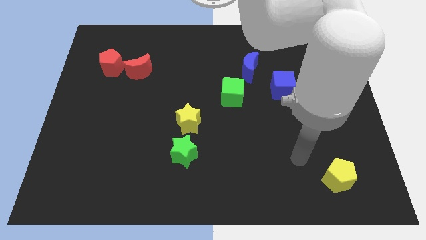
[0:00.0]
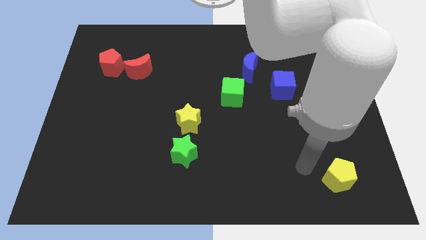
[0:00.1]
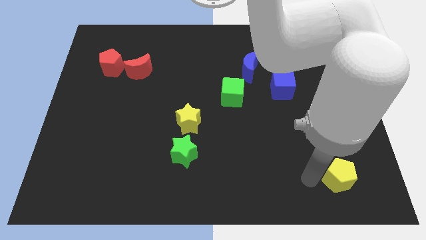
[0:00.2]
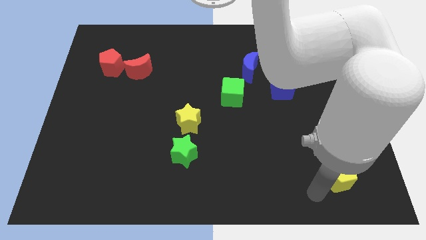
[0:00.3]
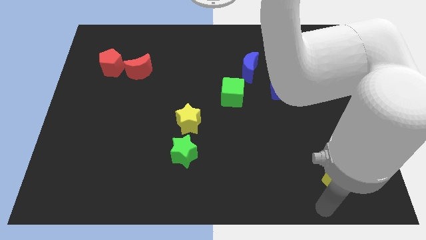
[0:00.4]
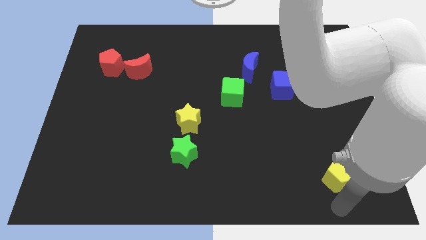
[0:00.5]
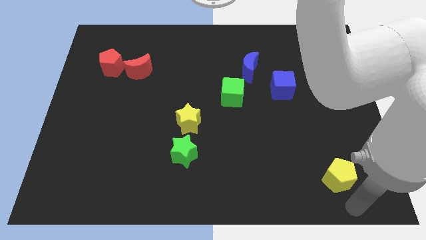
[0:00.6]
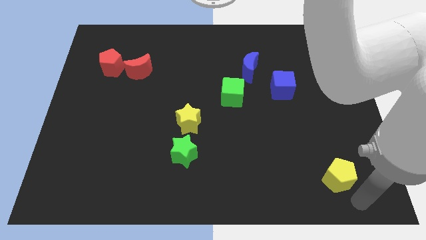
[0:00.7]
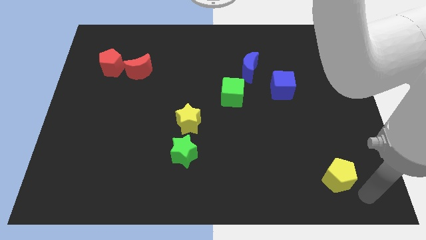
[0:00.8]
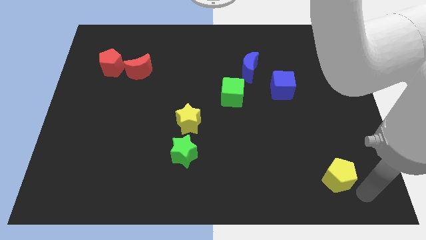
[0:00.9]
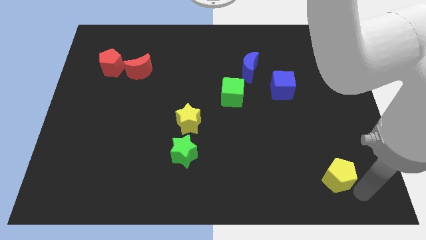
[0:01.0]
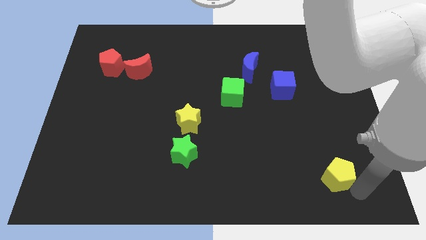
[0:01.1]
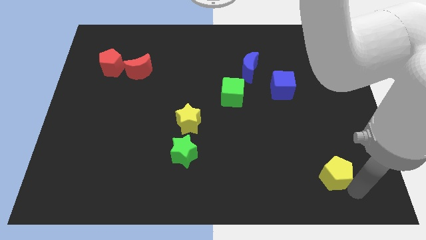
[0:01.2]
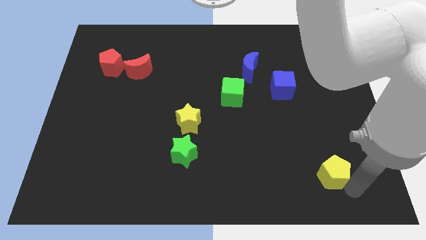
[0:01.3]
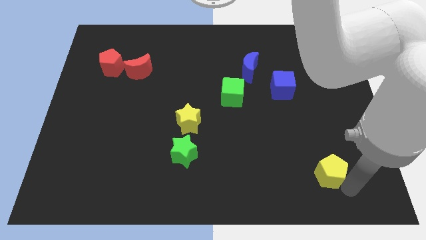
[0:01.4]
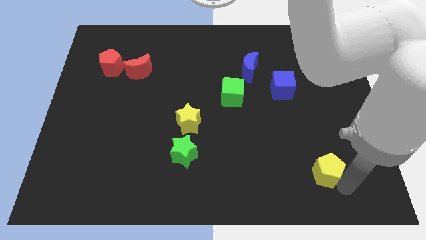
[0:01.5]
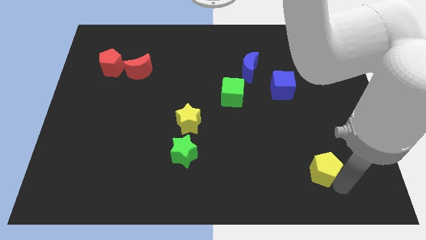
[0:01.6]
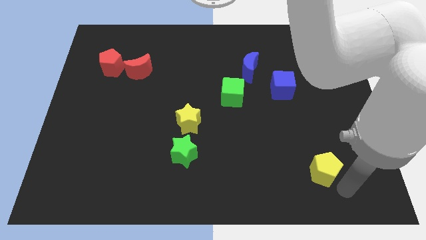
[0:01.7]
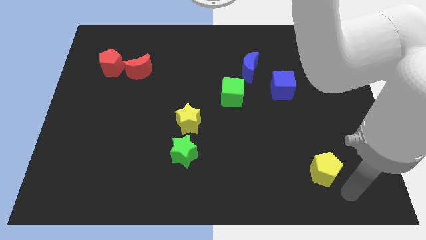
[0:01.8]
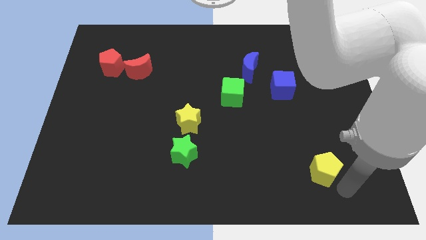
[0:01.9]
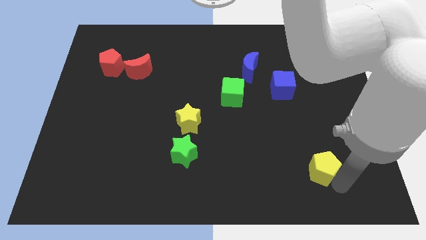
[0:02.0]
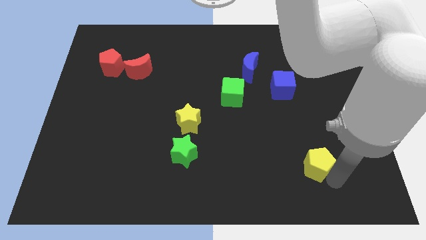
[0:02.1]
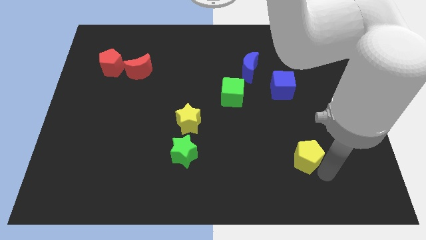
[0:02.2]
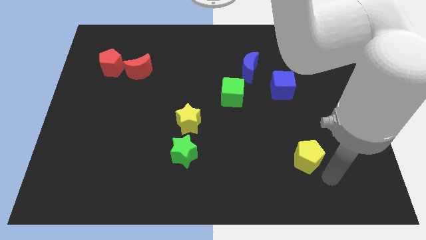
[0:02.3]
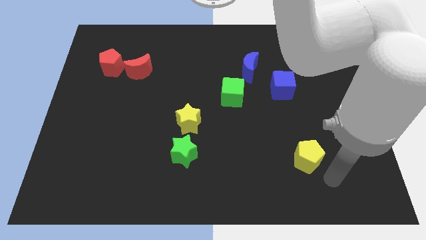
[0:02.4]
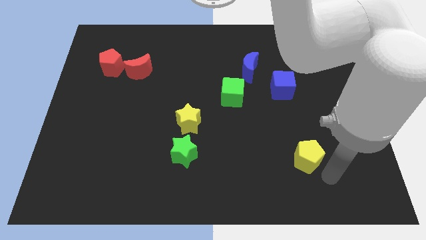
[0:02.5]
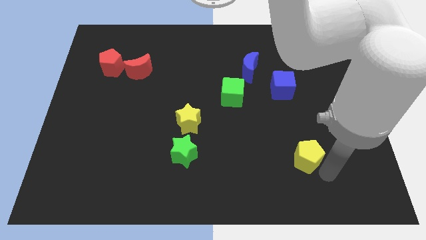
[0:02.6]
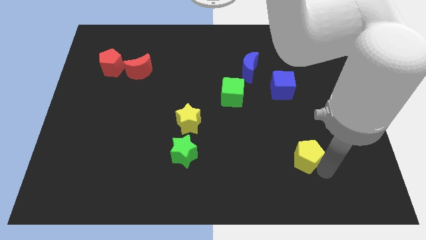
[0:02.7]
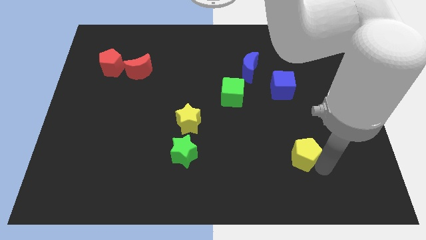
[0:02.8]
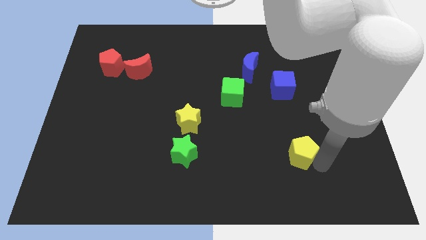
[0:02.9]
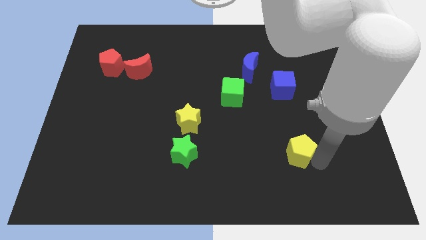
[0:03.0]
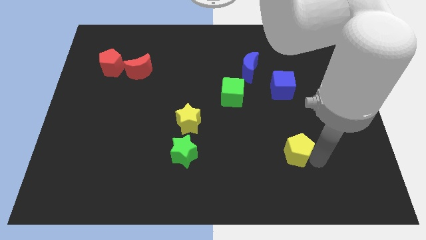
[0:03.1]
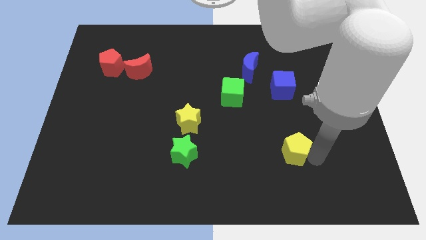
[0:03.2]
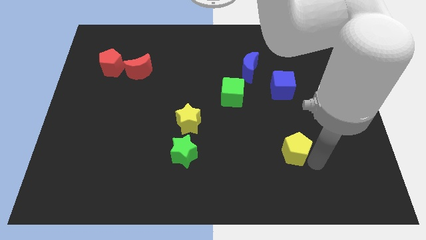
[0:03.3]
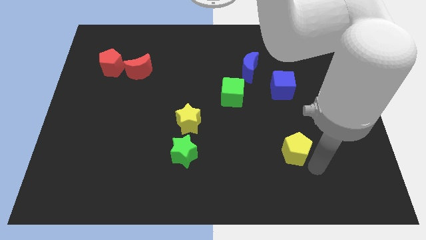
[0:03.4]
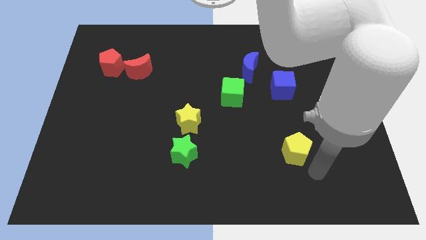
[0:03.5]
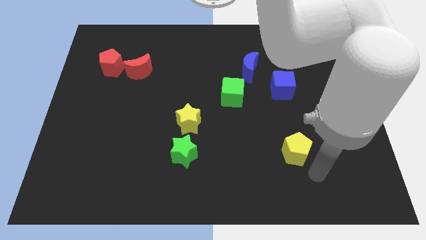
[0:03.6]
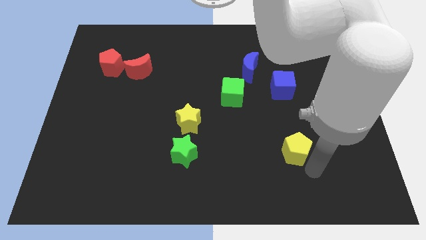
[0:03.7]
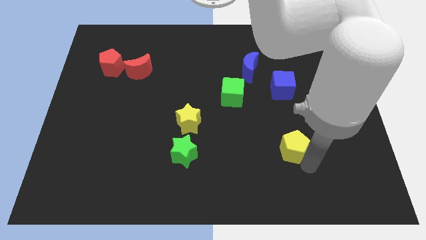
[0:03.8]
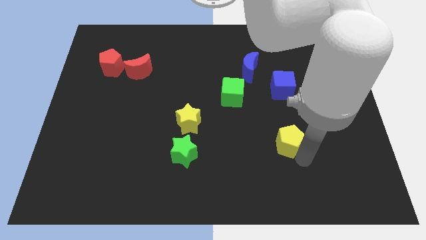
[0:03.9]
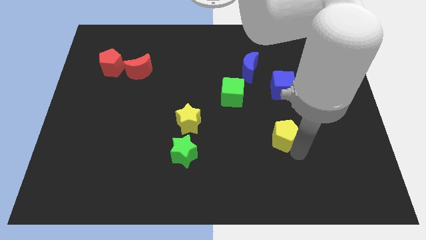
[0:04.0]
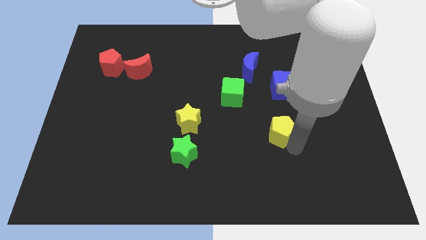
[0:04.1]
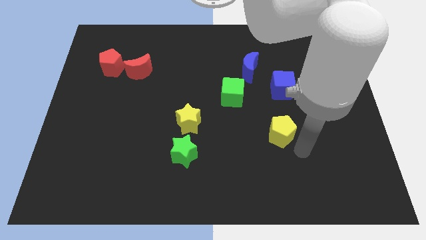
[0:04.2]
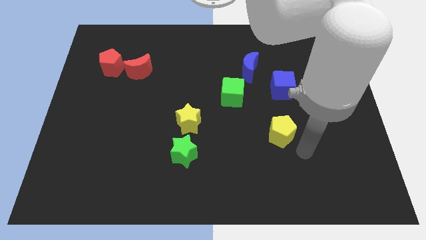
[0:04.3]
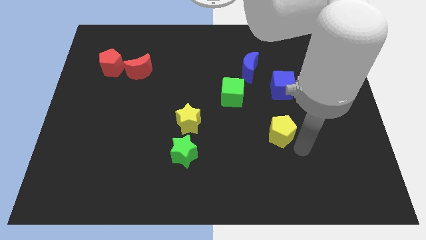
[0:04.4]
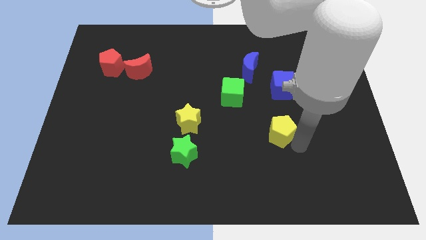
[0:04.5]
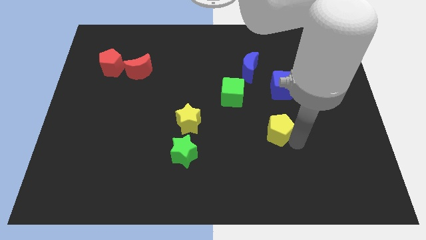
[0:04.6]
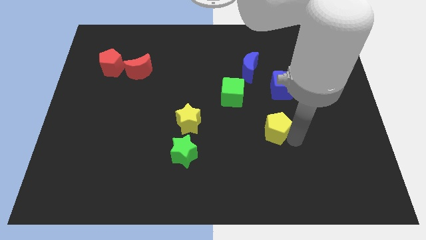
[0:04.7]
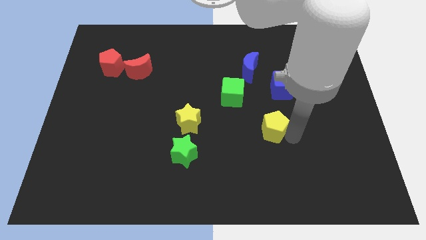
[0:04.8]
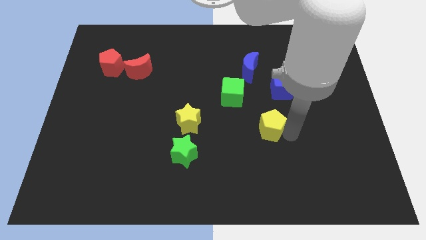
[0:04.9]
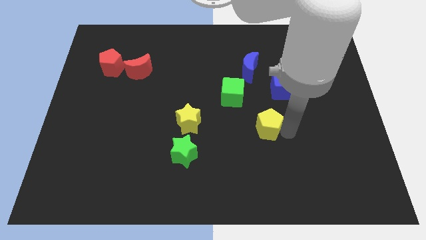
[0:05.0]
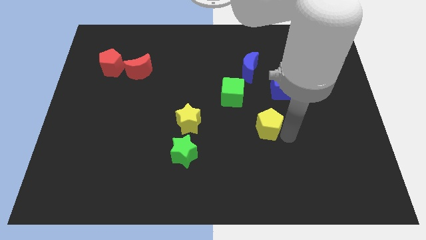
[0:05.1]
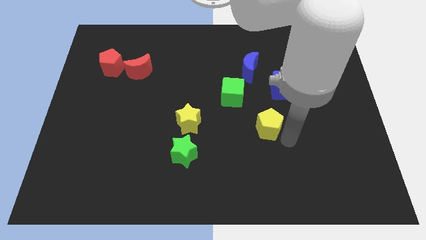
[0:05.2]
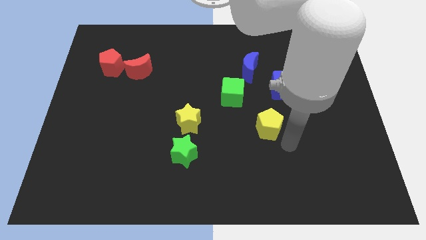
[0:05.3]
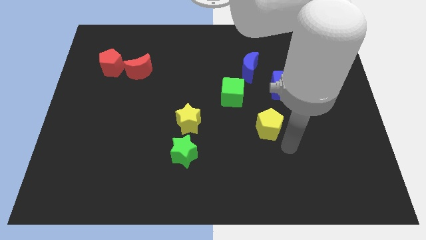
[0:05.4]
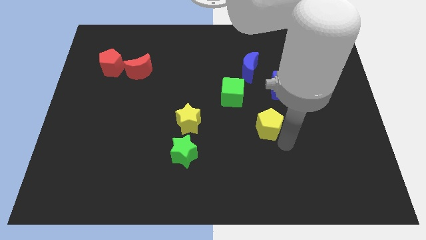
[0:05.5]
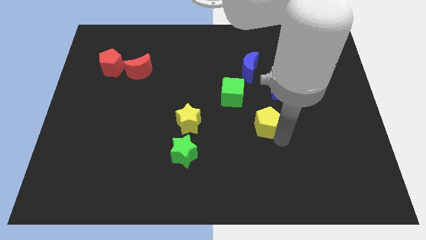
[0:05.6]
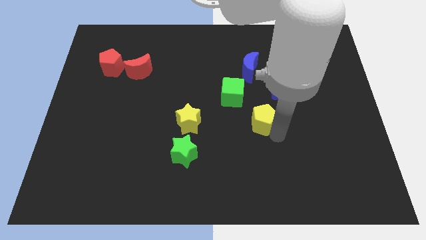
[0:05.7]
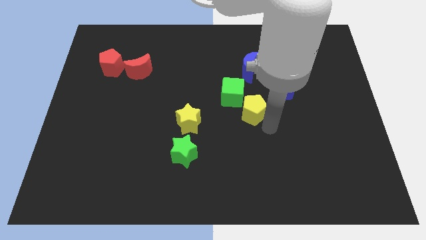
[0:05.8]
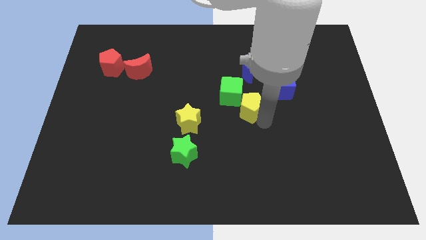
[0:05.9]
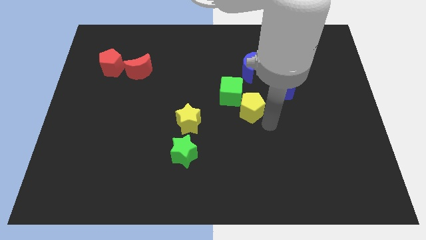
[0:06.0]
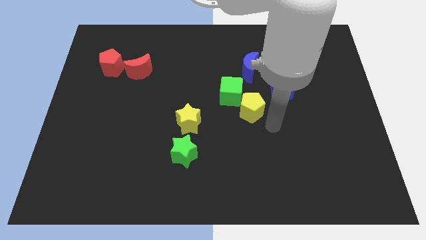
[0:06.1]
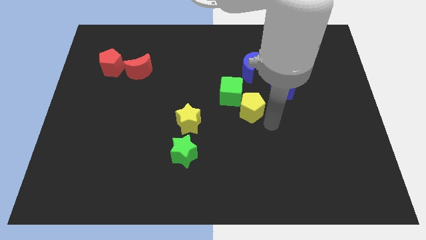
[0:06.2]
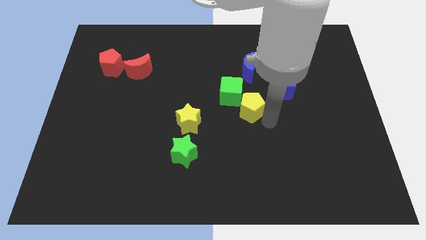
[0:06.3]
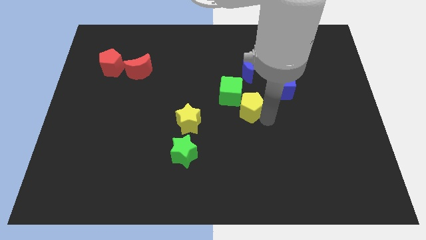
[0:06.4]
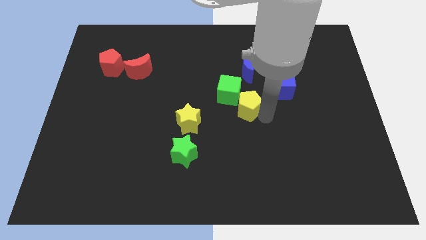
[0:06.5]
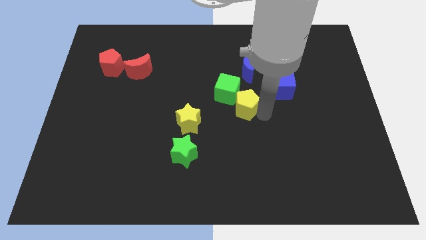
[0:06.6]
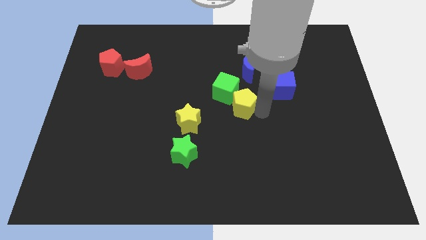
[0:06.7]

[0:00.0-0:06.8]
push the yellow pentagon towards the green cube
